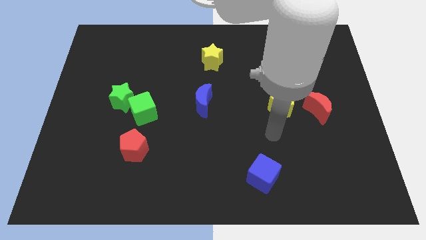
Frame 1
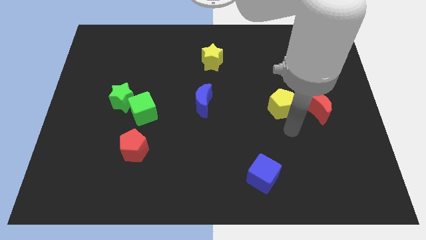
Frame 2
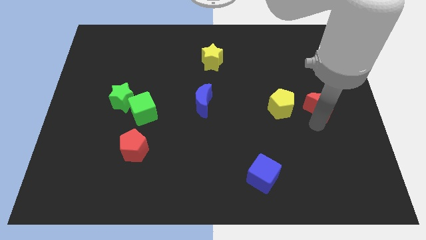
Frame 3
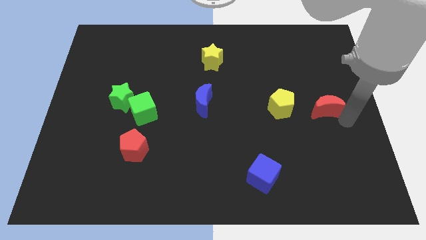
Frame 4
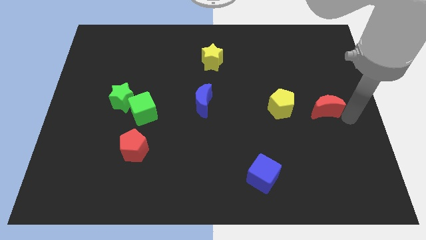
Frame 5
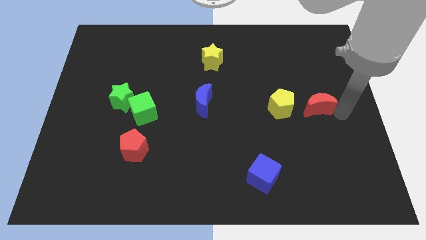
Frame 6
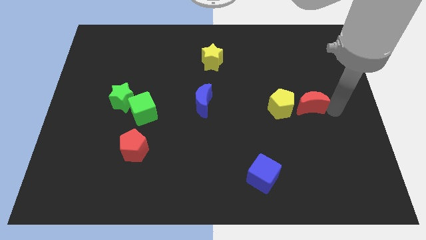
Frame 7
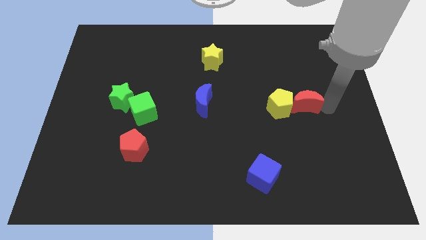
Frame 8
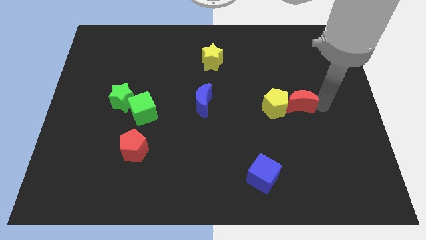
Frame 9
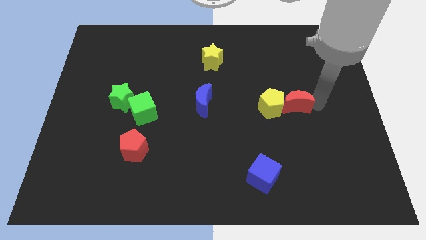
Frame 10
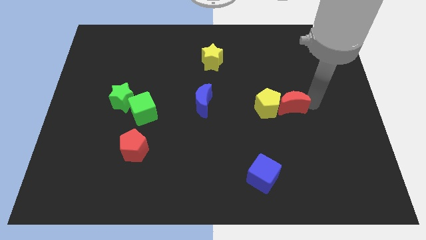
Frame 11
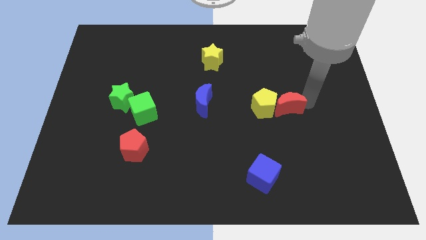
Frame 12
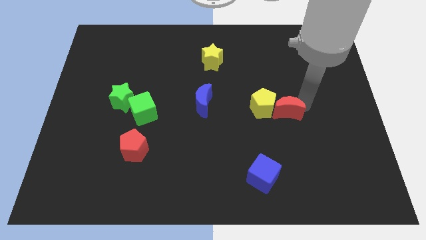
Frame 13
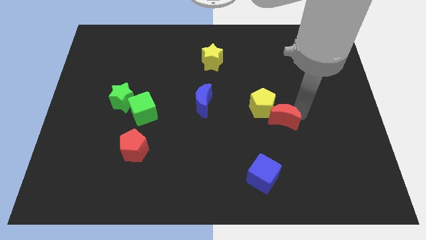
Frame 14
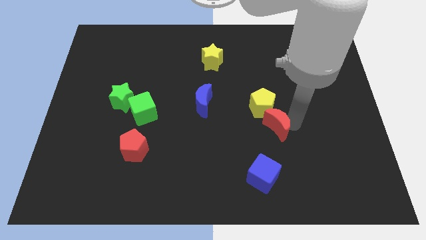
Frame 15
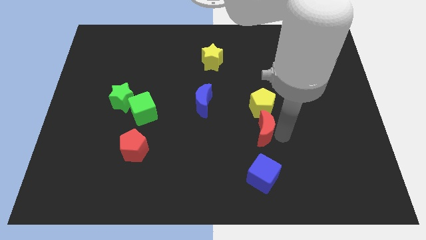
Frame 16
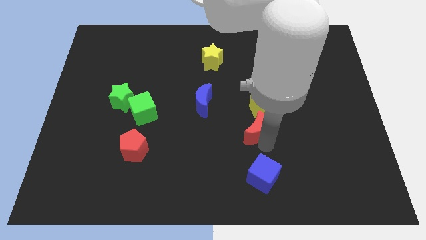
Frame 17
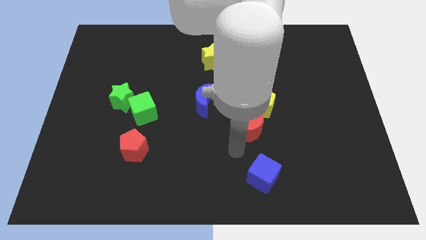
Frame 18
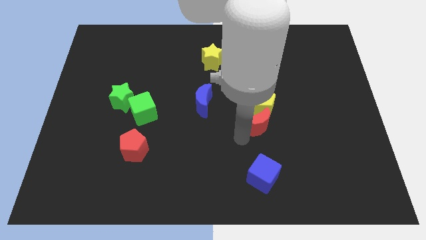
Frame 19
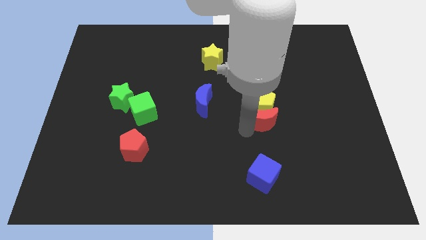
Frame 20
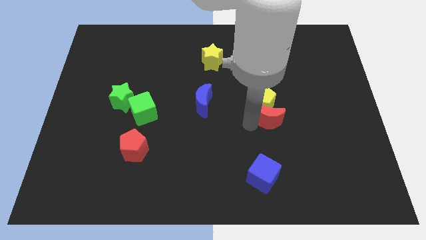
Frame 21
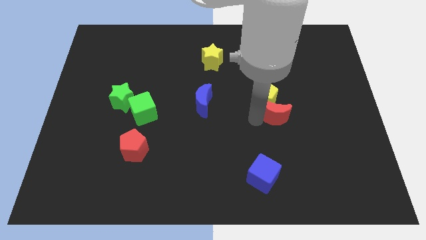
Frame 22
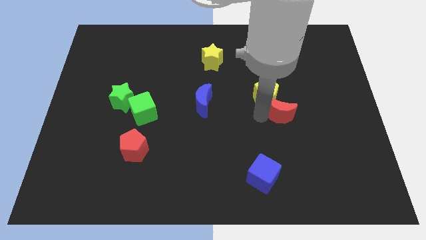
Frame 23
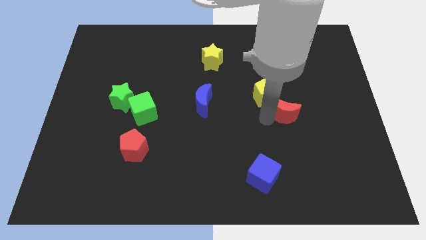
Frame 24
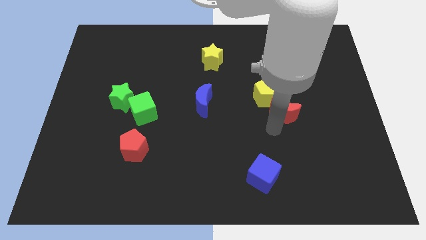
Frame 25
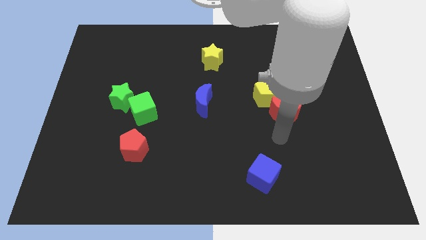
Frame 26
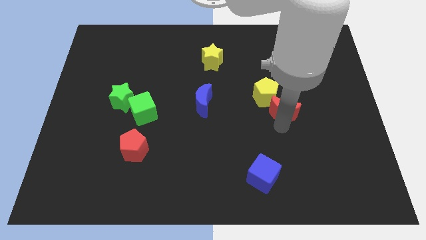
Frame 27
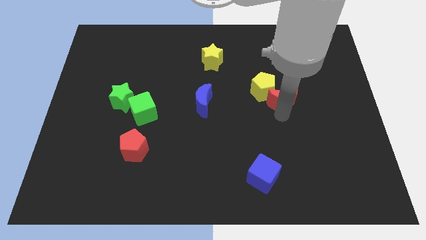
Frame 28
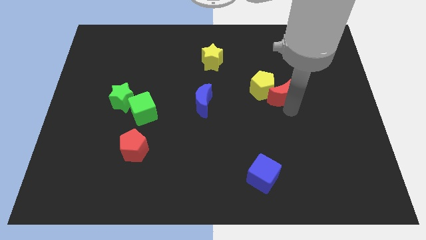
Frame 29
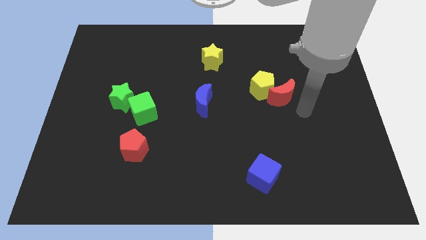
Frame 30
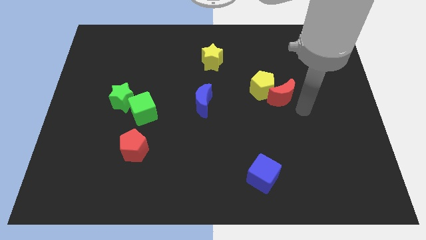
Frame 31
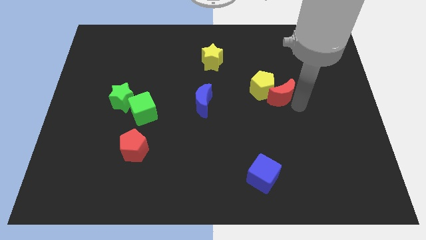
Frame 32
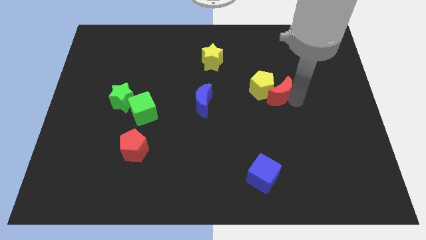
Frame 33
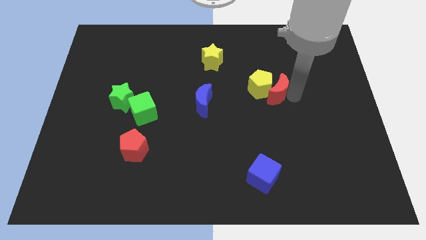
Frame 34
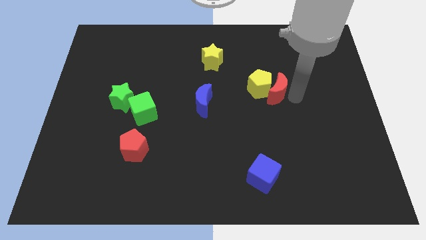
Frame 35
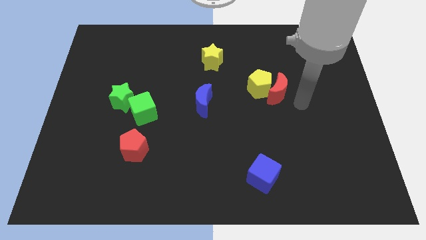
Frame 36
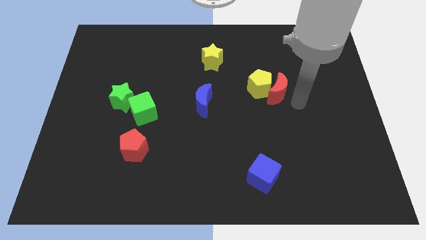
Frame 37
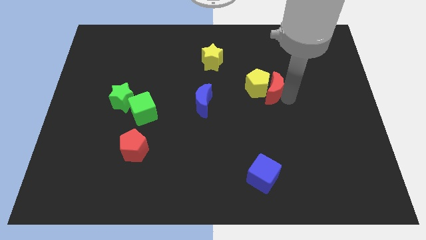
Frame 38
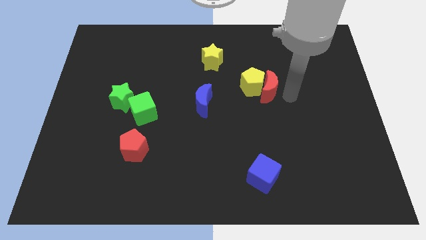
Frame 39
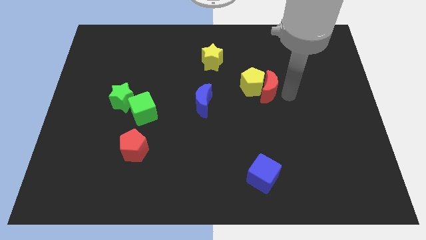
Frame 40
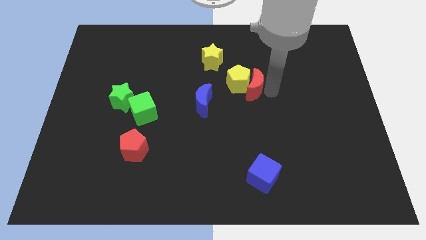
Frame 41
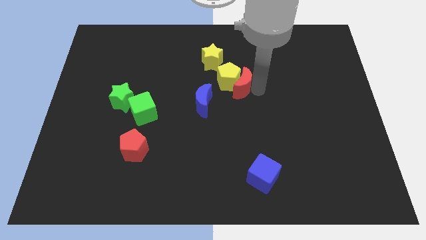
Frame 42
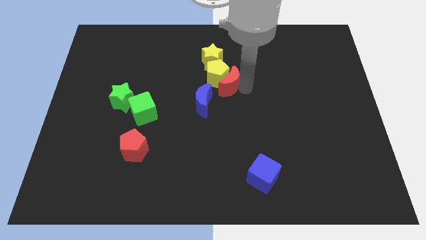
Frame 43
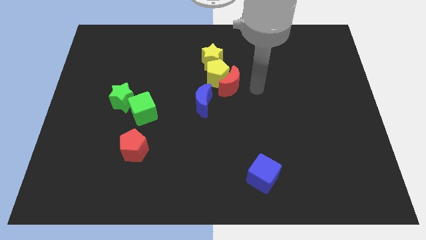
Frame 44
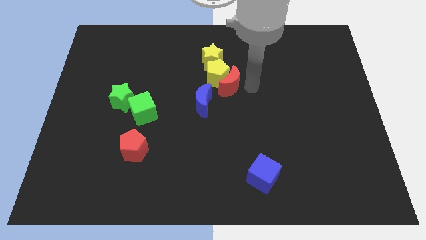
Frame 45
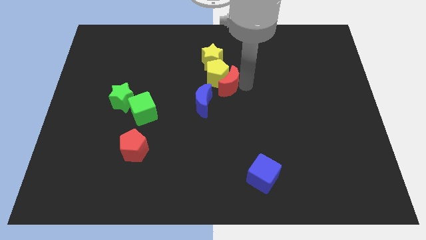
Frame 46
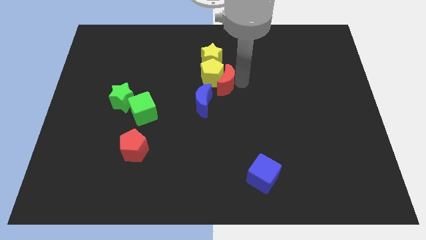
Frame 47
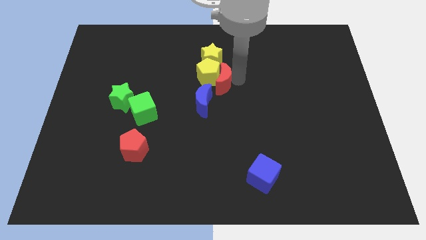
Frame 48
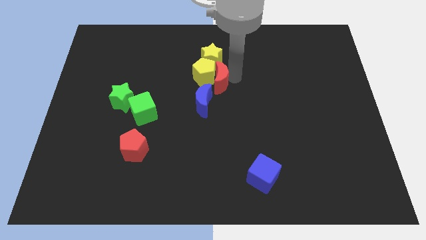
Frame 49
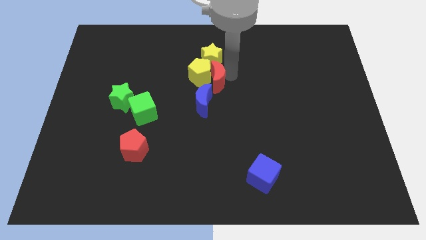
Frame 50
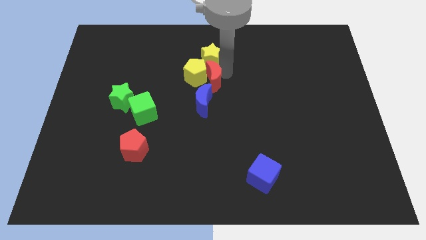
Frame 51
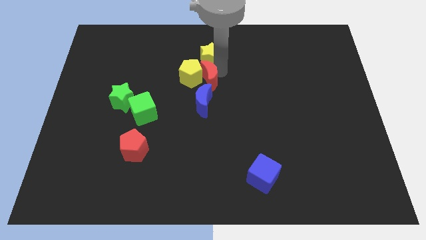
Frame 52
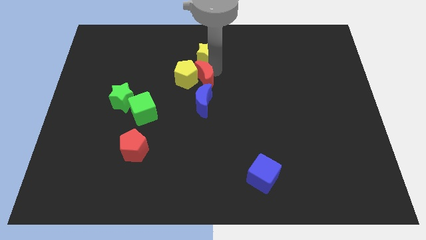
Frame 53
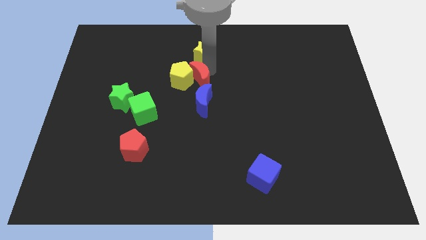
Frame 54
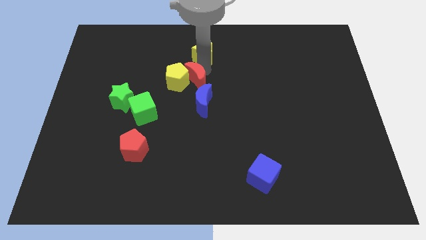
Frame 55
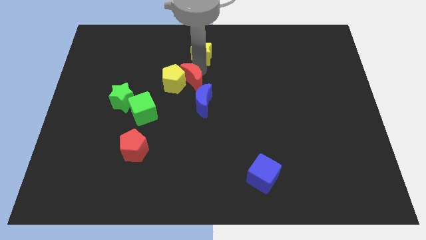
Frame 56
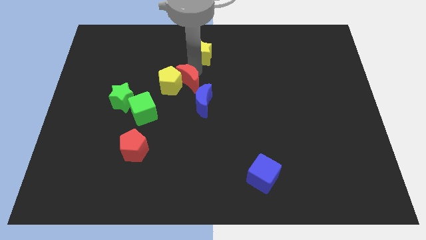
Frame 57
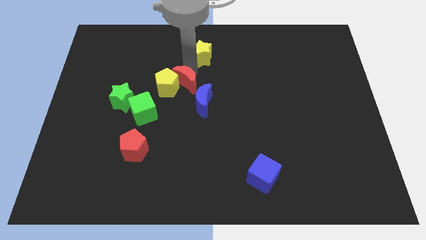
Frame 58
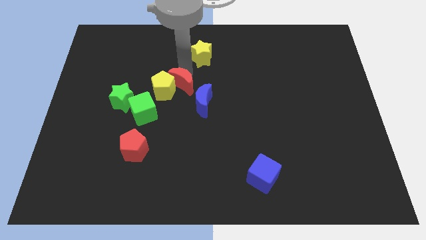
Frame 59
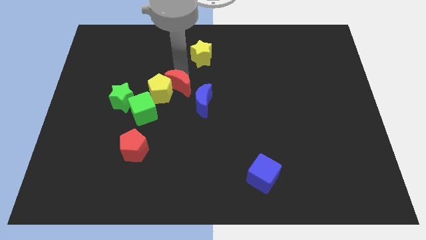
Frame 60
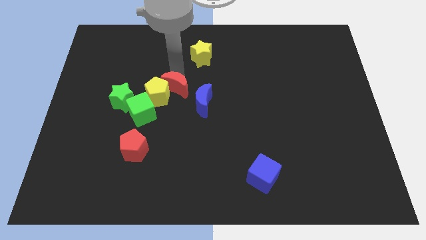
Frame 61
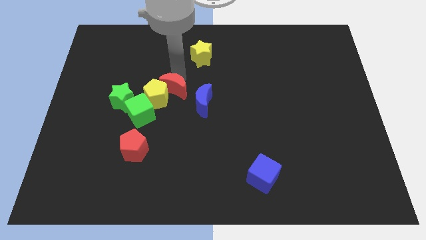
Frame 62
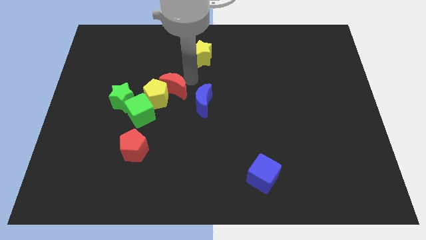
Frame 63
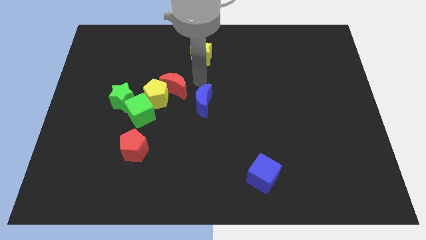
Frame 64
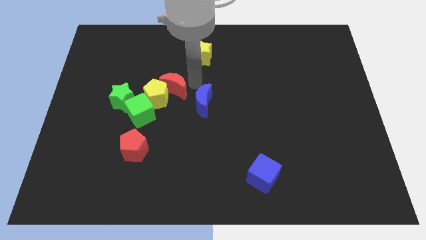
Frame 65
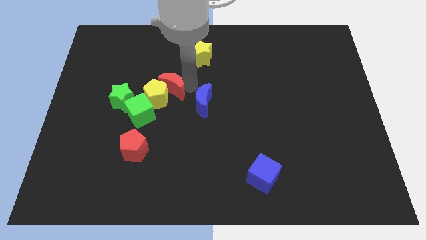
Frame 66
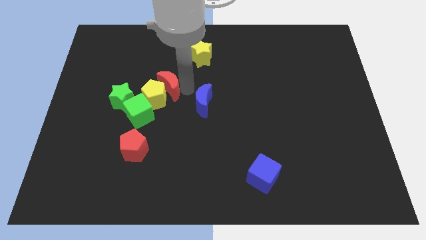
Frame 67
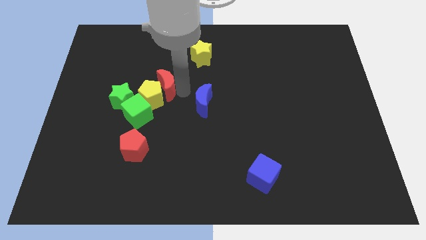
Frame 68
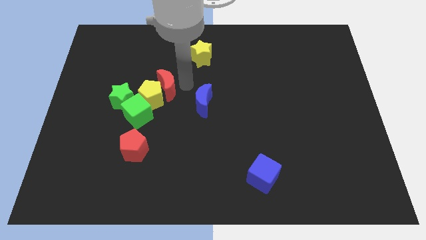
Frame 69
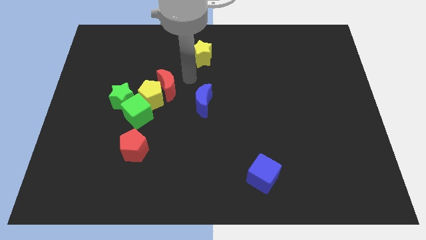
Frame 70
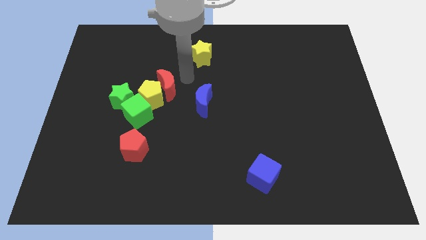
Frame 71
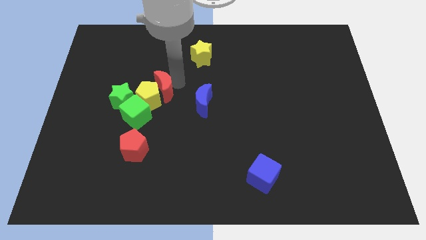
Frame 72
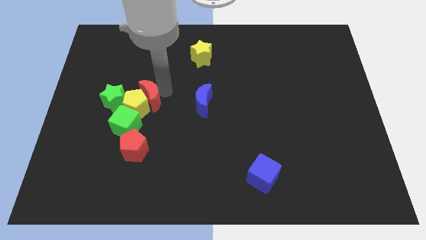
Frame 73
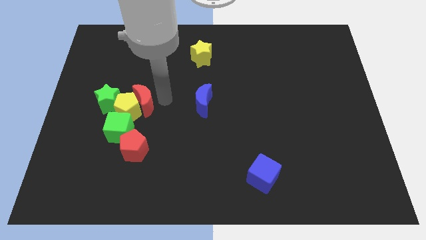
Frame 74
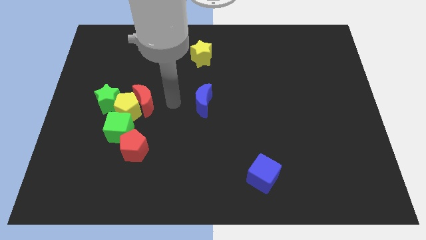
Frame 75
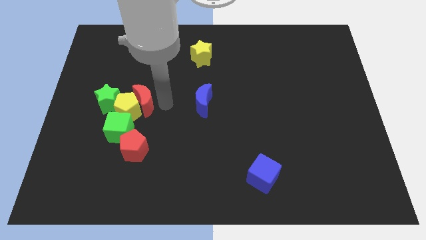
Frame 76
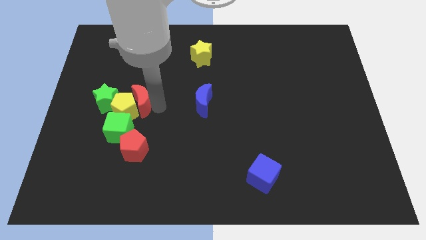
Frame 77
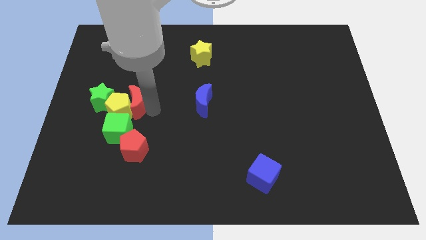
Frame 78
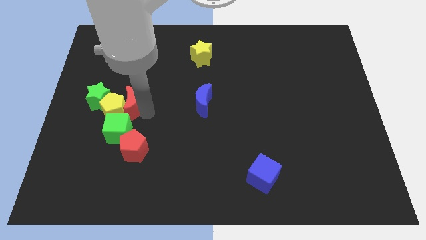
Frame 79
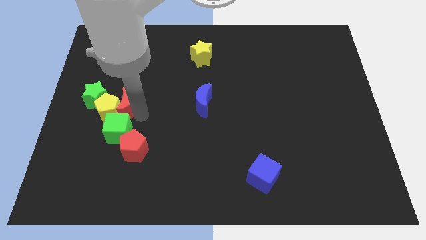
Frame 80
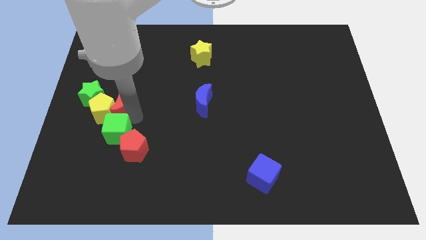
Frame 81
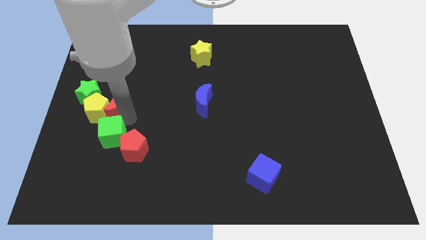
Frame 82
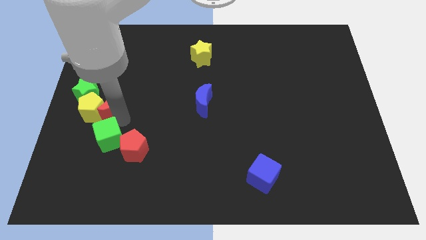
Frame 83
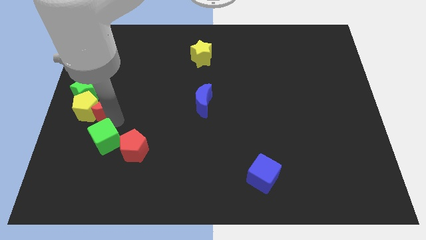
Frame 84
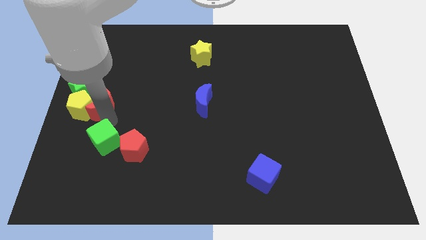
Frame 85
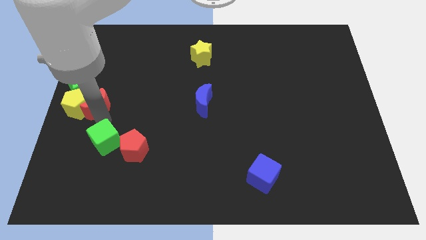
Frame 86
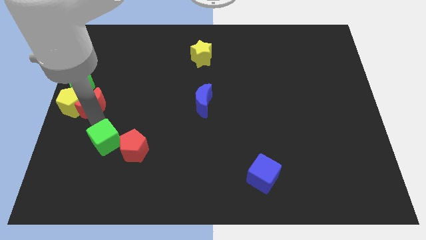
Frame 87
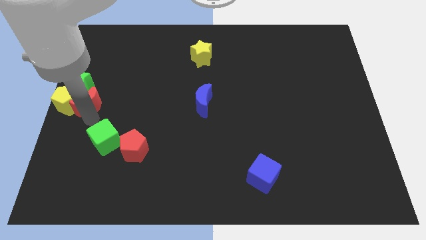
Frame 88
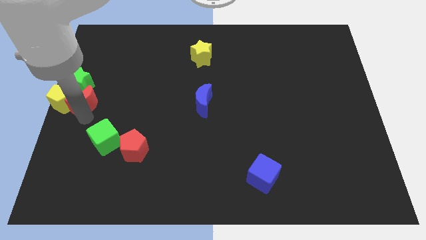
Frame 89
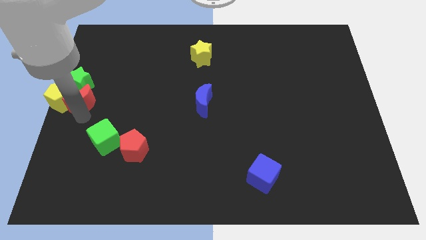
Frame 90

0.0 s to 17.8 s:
move the red moon close to the green star
